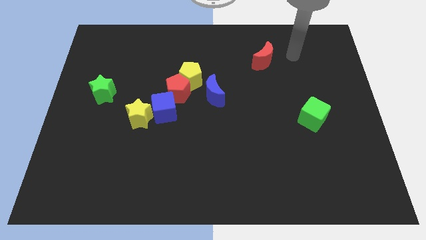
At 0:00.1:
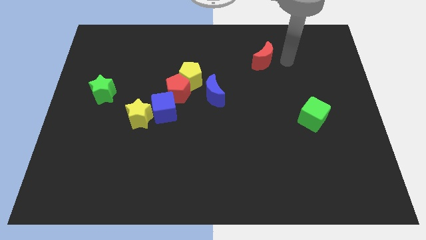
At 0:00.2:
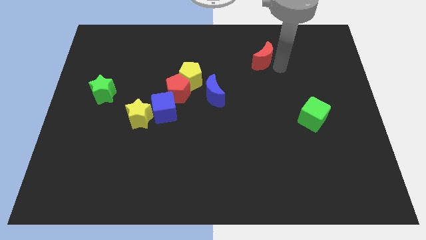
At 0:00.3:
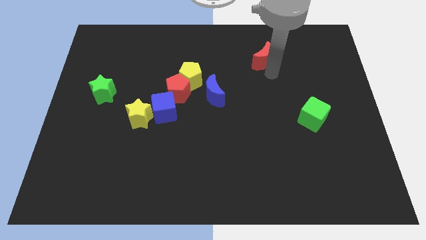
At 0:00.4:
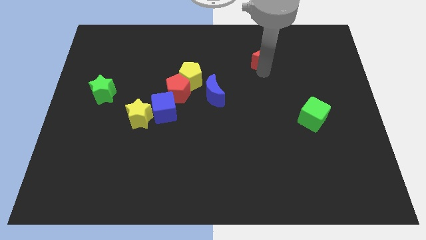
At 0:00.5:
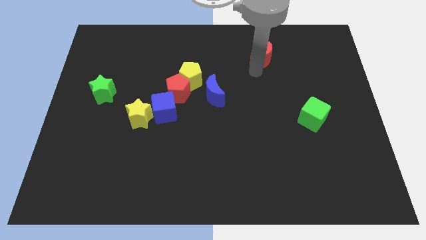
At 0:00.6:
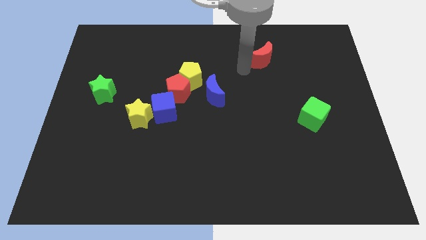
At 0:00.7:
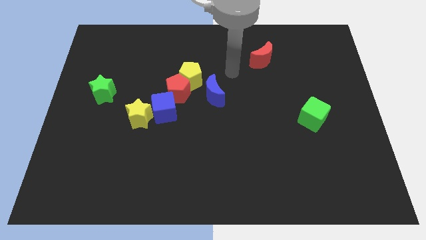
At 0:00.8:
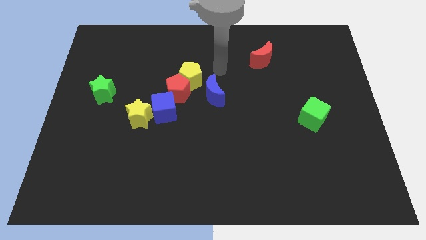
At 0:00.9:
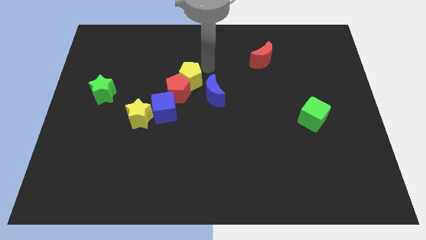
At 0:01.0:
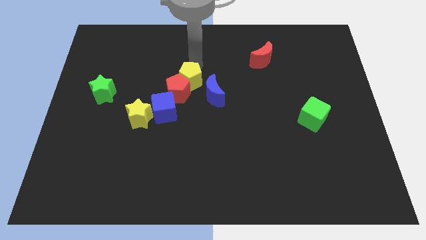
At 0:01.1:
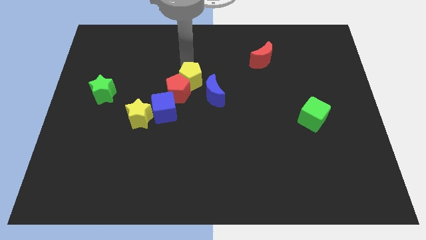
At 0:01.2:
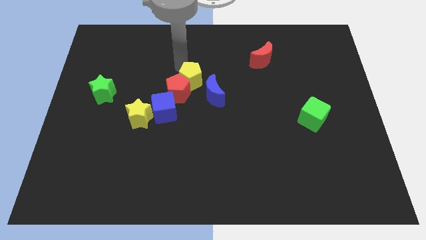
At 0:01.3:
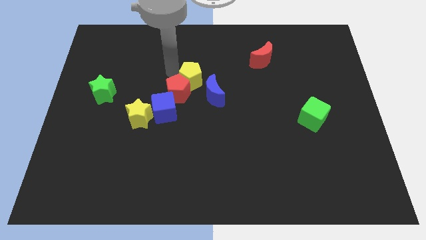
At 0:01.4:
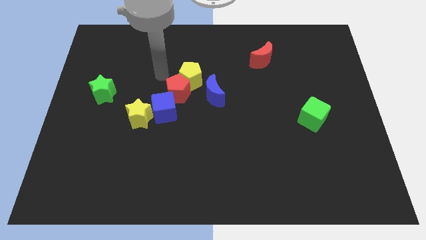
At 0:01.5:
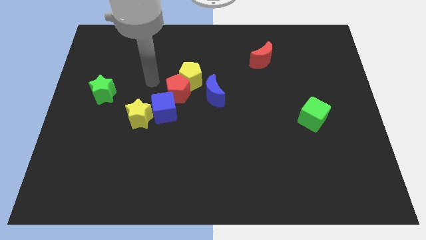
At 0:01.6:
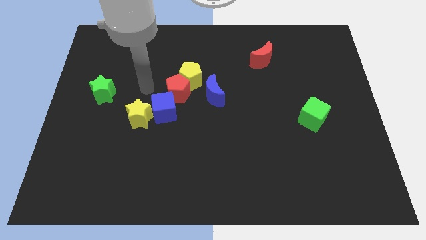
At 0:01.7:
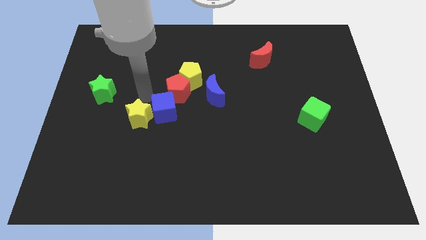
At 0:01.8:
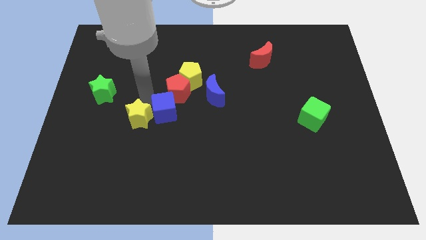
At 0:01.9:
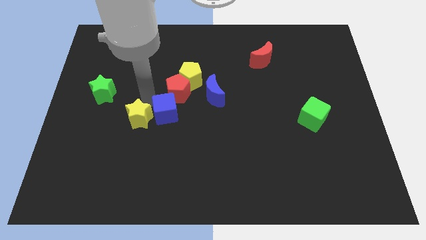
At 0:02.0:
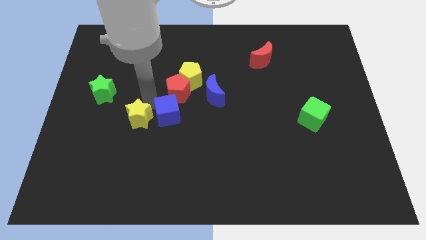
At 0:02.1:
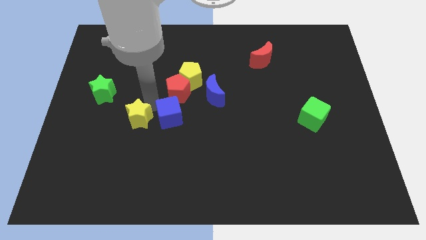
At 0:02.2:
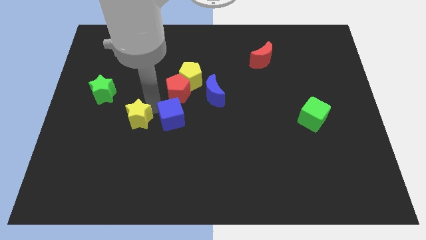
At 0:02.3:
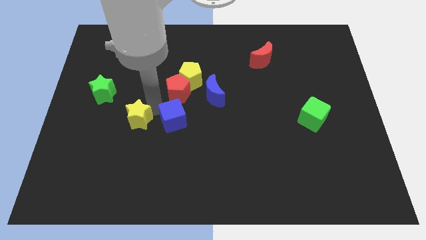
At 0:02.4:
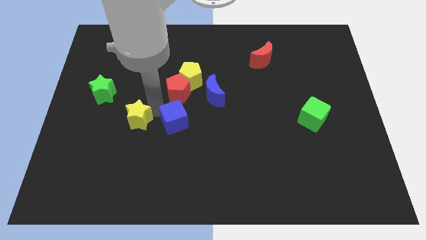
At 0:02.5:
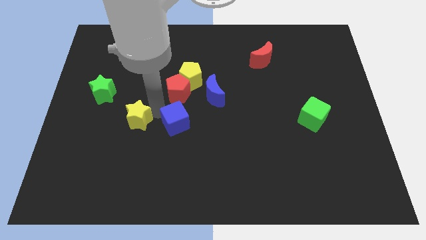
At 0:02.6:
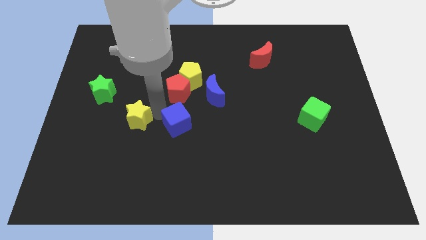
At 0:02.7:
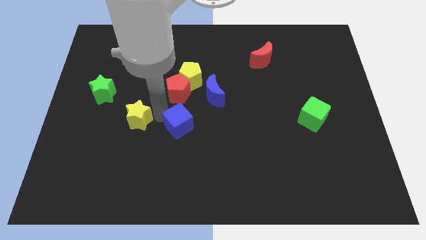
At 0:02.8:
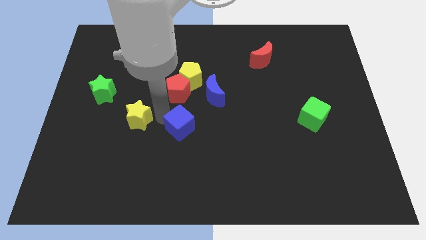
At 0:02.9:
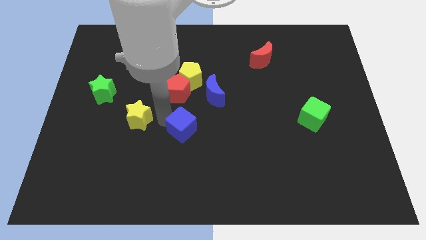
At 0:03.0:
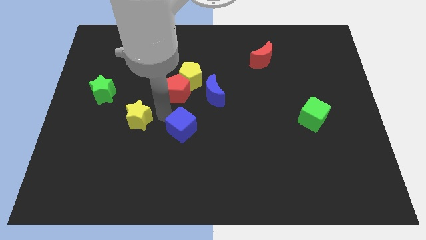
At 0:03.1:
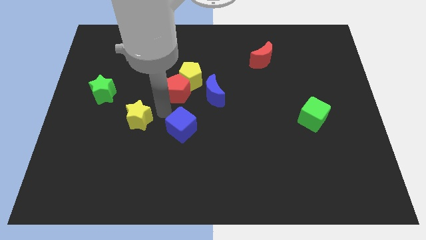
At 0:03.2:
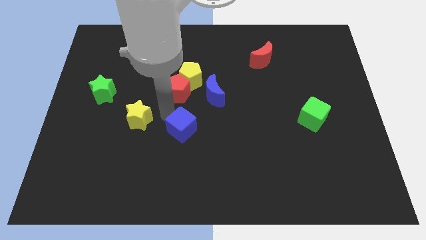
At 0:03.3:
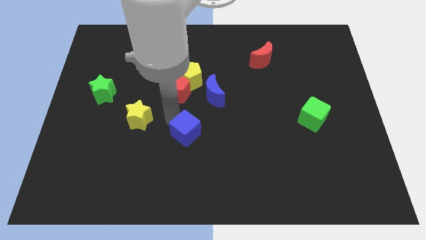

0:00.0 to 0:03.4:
slide the blue cube a little bit down and right

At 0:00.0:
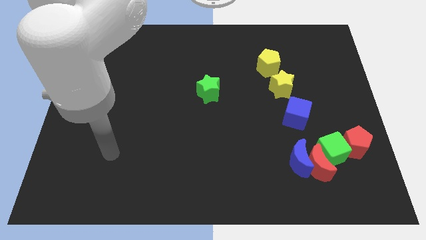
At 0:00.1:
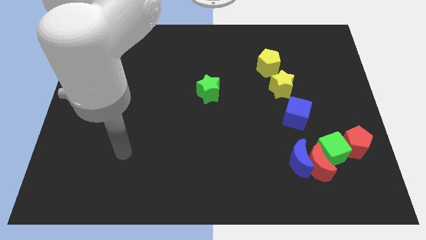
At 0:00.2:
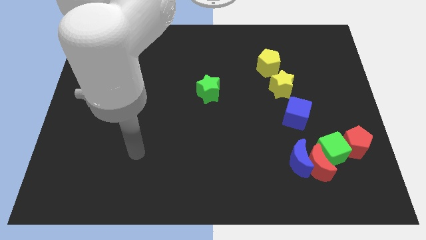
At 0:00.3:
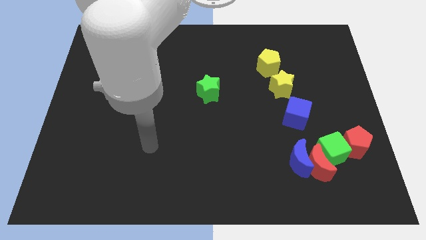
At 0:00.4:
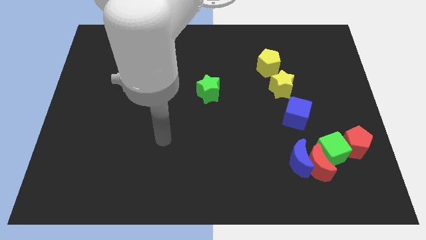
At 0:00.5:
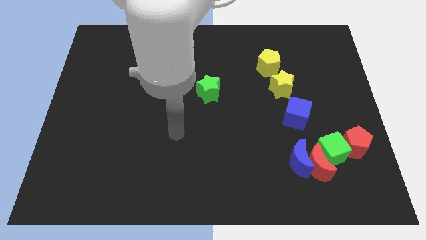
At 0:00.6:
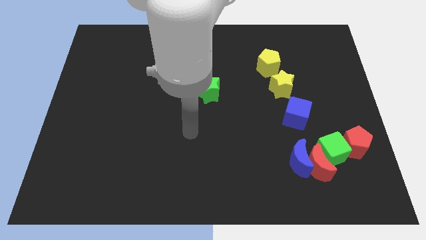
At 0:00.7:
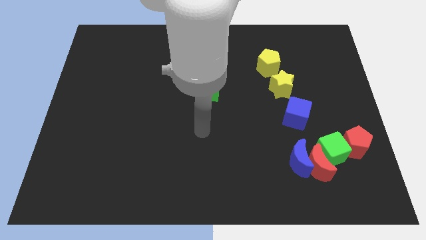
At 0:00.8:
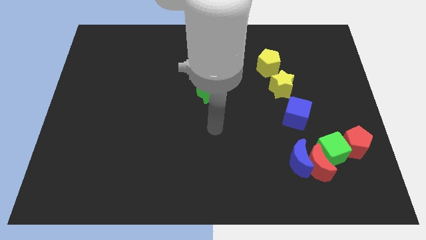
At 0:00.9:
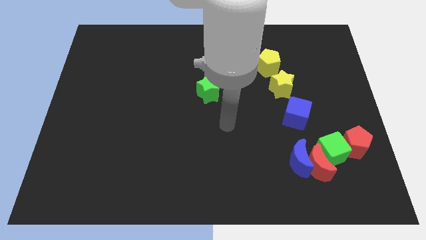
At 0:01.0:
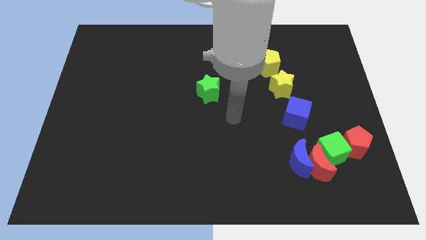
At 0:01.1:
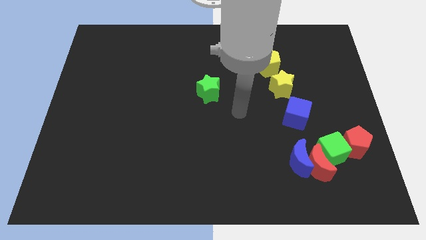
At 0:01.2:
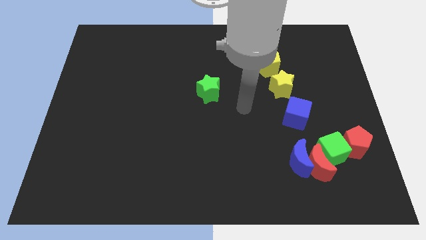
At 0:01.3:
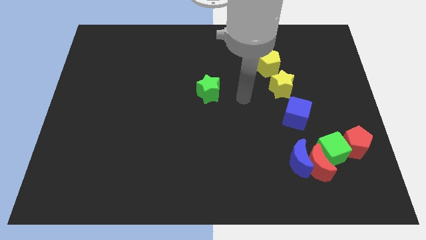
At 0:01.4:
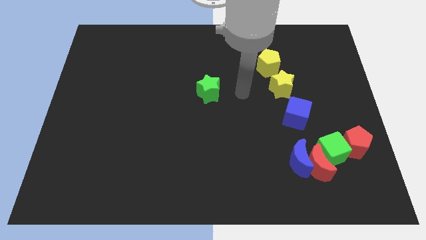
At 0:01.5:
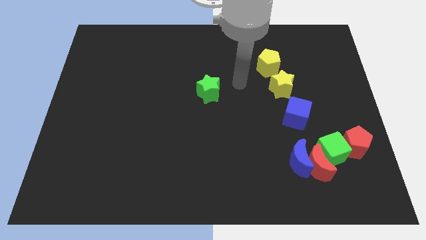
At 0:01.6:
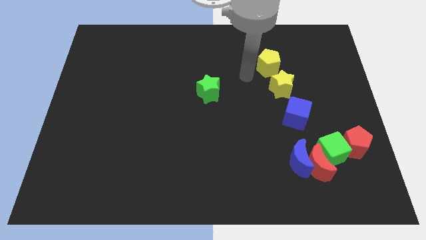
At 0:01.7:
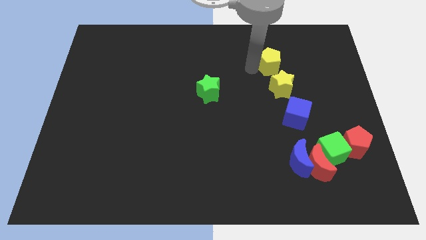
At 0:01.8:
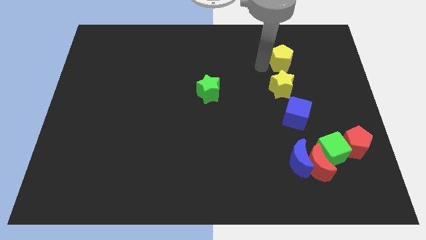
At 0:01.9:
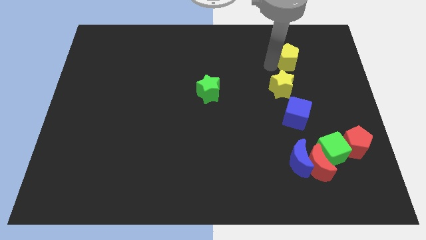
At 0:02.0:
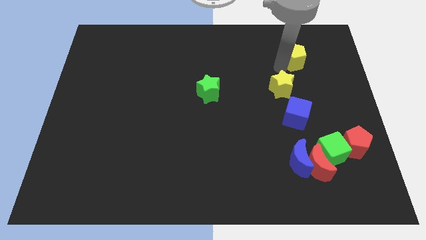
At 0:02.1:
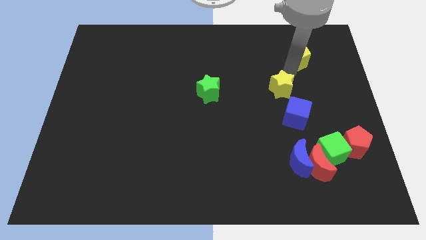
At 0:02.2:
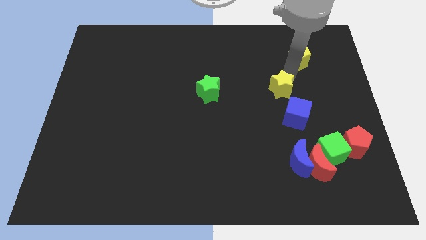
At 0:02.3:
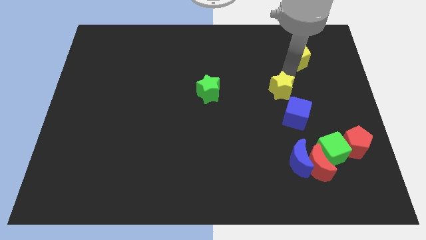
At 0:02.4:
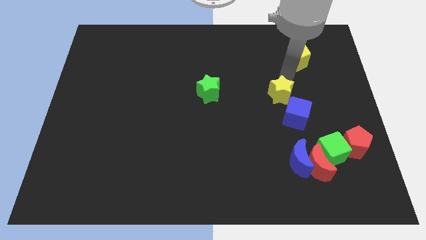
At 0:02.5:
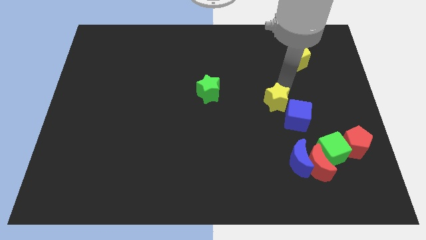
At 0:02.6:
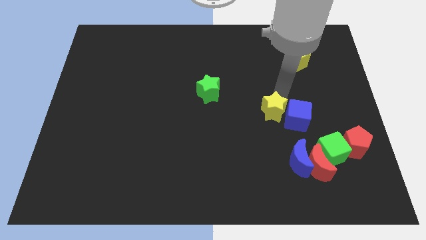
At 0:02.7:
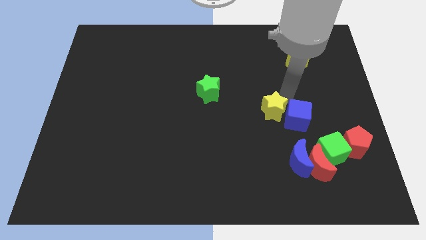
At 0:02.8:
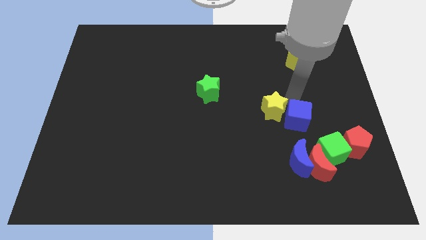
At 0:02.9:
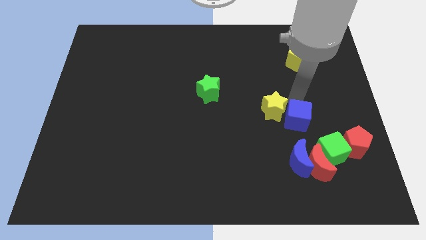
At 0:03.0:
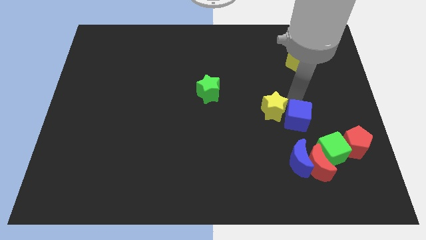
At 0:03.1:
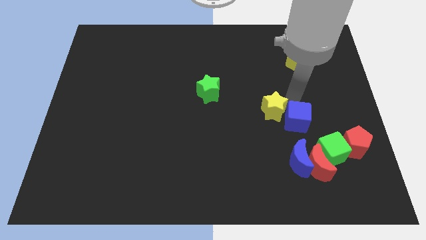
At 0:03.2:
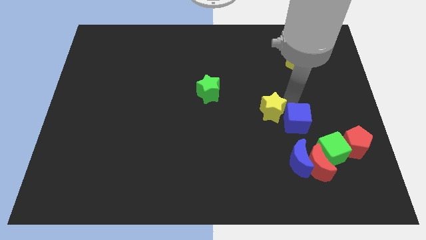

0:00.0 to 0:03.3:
slightly push the yellow star down and to the left

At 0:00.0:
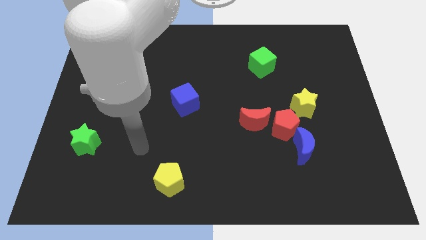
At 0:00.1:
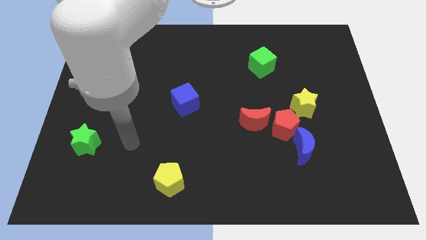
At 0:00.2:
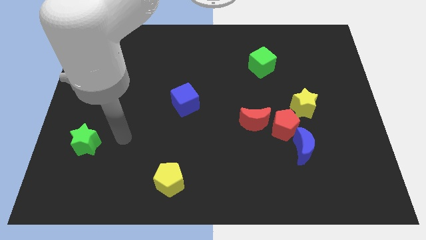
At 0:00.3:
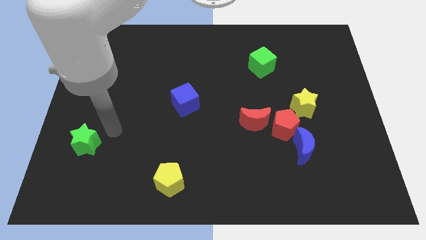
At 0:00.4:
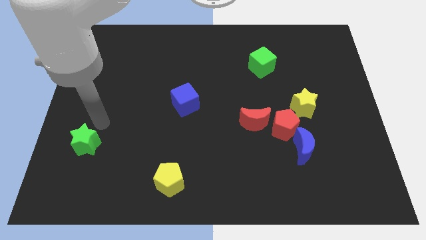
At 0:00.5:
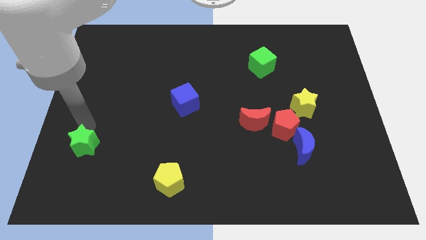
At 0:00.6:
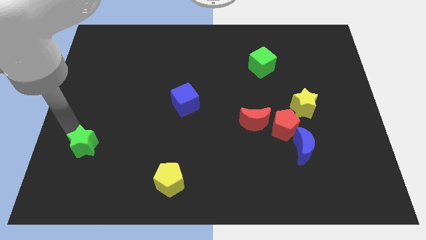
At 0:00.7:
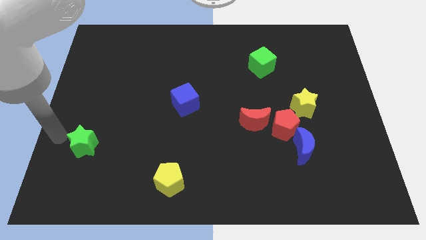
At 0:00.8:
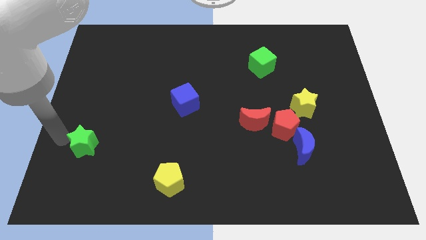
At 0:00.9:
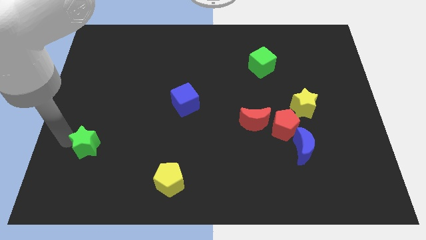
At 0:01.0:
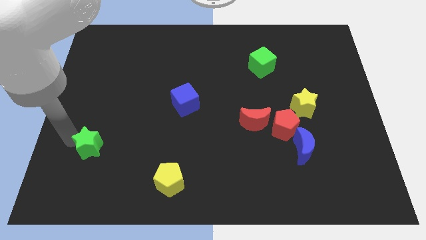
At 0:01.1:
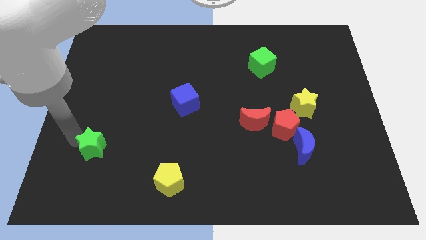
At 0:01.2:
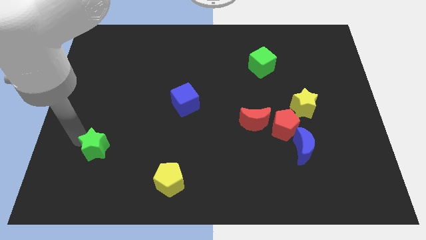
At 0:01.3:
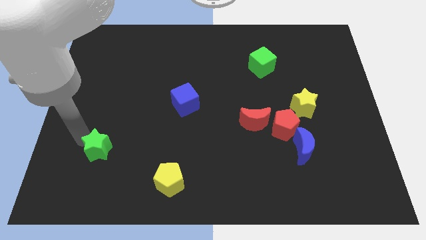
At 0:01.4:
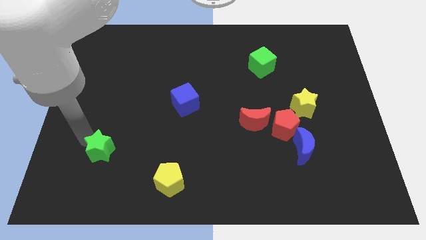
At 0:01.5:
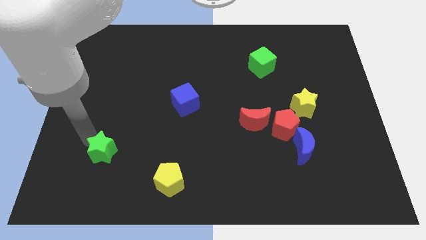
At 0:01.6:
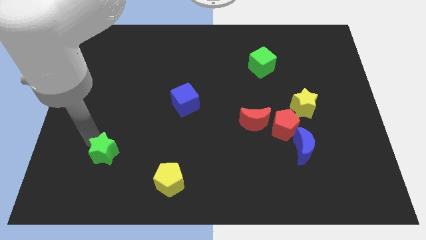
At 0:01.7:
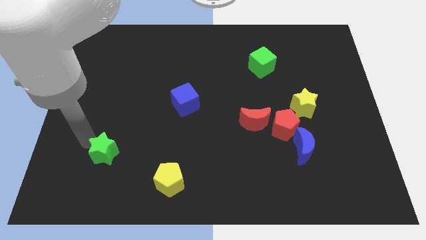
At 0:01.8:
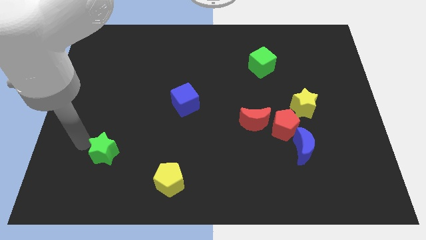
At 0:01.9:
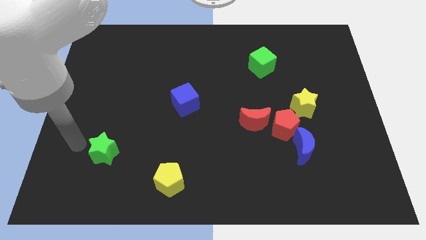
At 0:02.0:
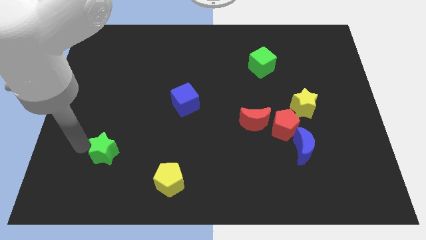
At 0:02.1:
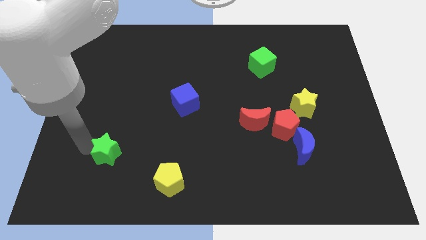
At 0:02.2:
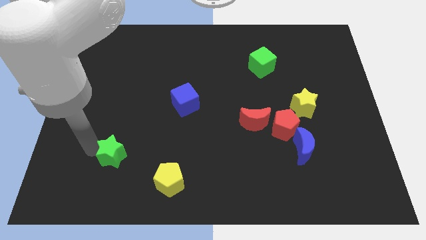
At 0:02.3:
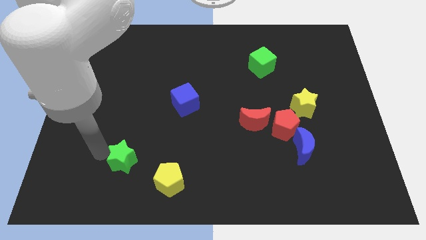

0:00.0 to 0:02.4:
slightly slide the green star right
